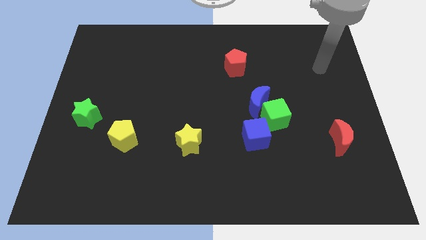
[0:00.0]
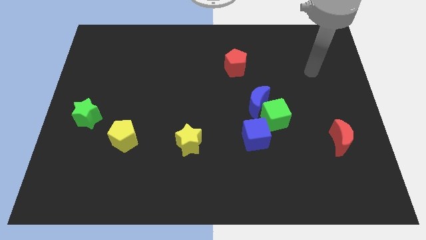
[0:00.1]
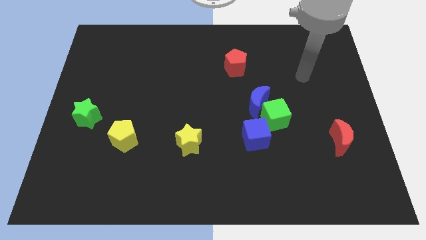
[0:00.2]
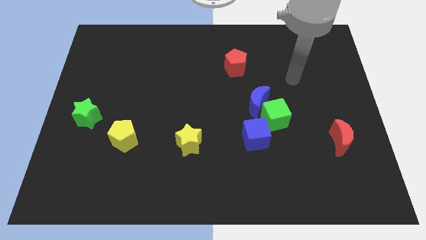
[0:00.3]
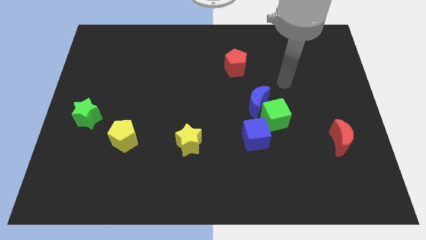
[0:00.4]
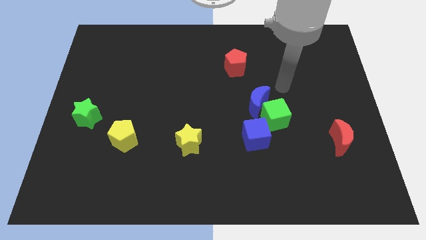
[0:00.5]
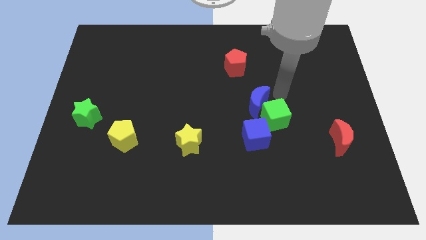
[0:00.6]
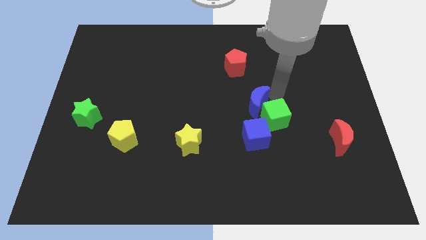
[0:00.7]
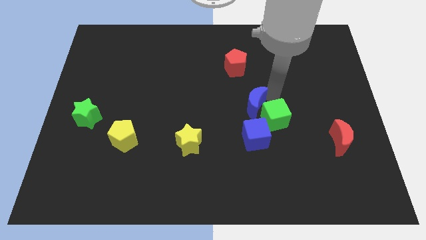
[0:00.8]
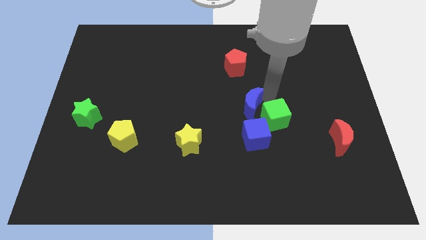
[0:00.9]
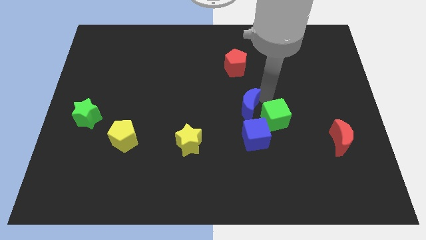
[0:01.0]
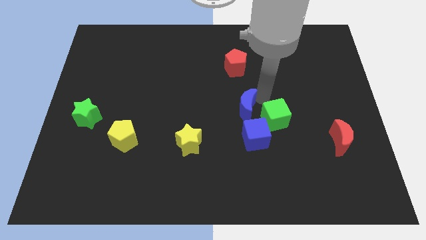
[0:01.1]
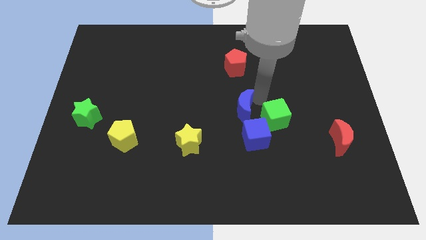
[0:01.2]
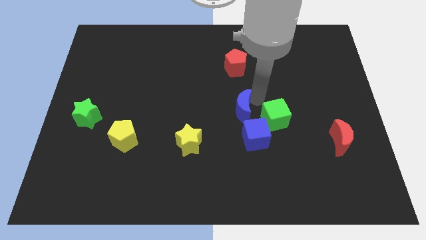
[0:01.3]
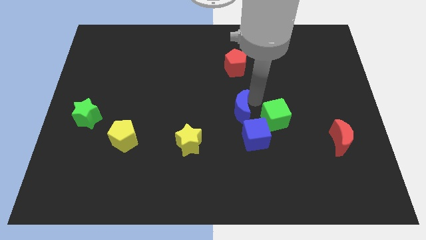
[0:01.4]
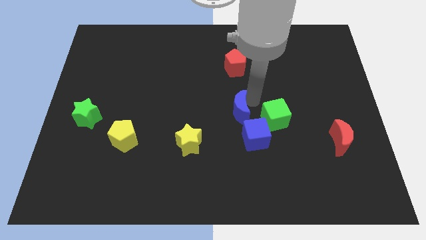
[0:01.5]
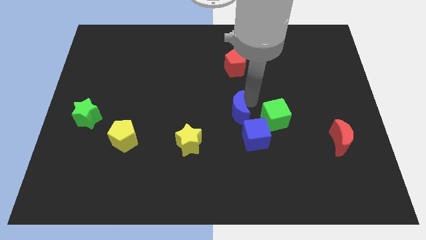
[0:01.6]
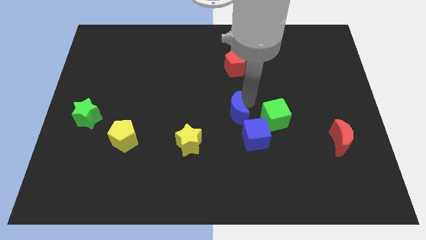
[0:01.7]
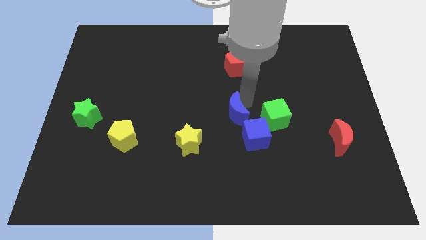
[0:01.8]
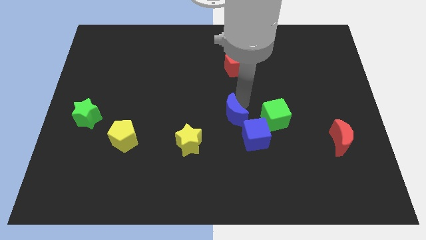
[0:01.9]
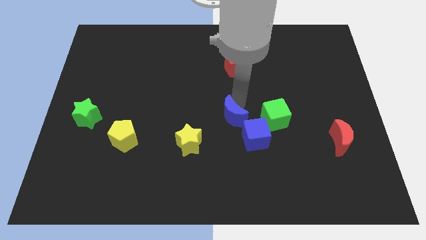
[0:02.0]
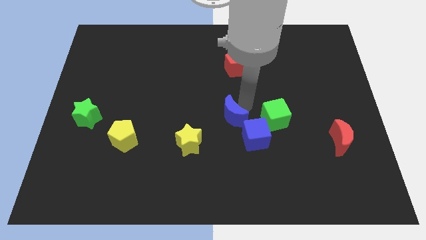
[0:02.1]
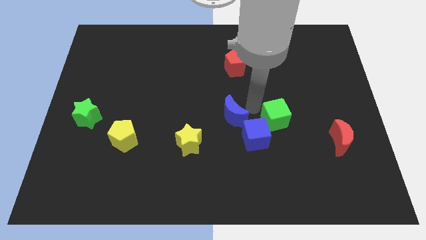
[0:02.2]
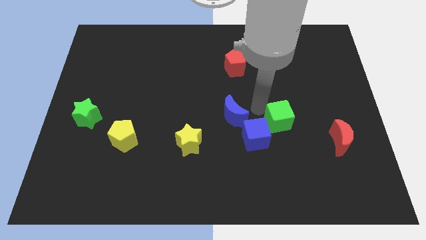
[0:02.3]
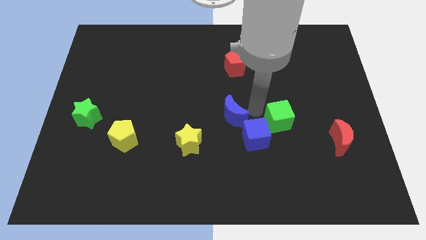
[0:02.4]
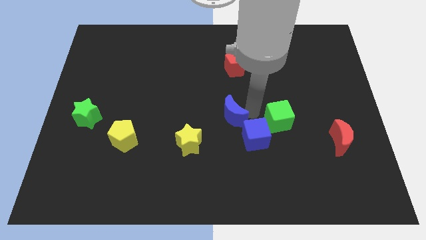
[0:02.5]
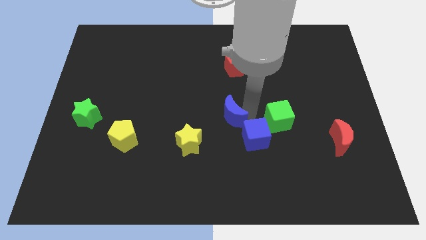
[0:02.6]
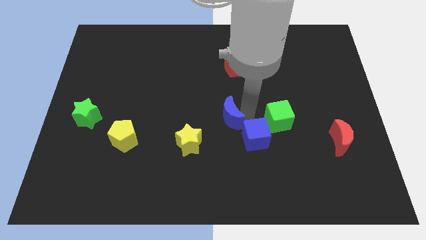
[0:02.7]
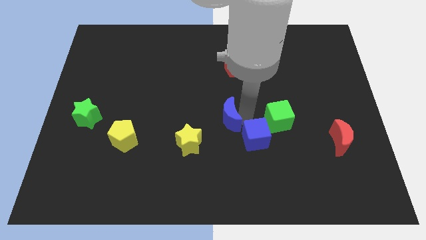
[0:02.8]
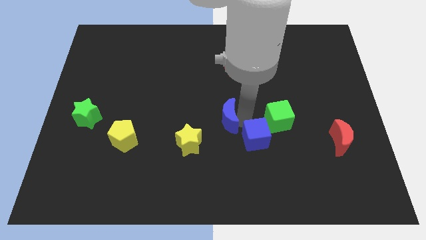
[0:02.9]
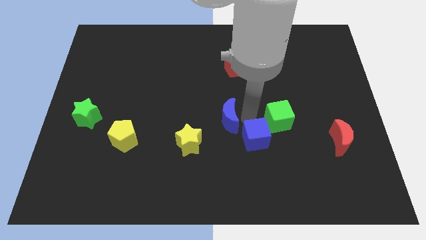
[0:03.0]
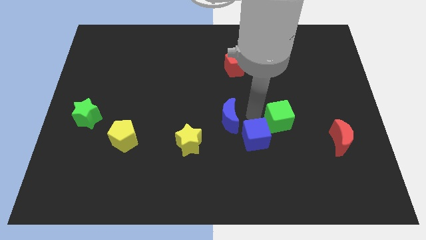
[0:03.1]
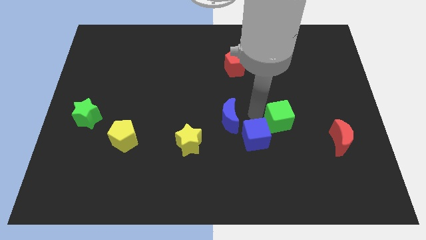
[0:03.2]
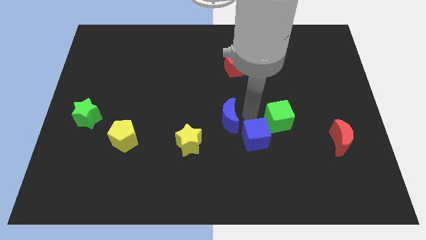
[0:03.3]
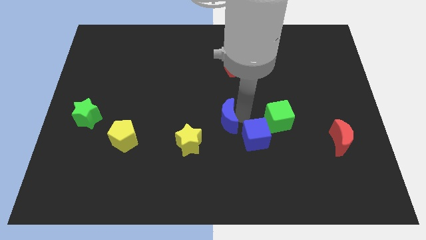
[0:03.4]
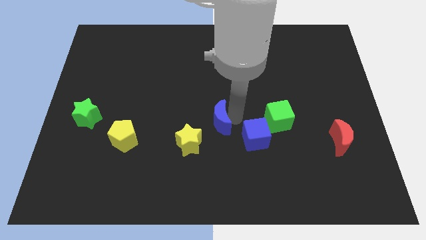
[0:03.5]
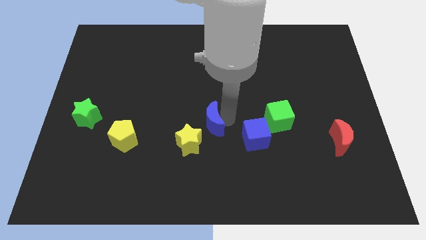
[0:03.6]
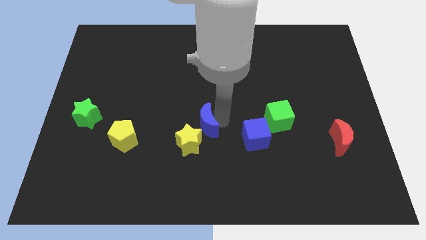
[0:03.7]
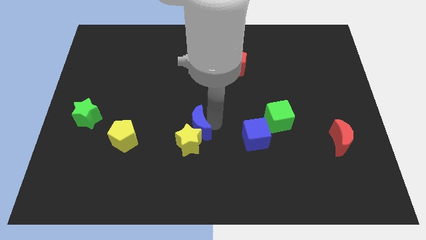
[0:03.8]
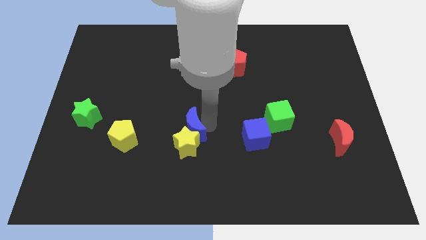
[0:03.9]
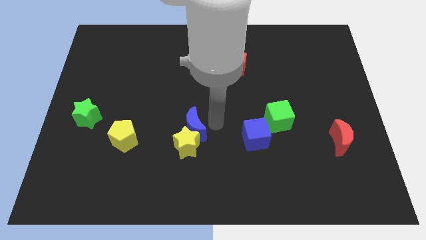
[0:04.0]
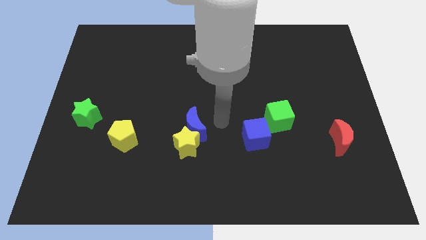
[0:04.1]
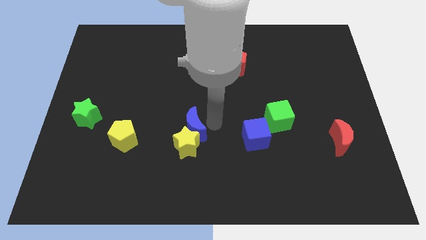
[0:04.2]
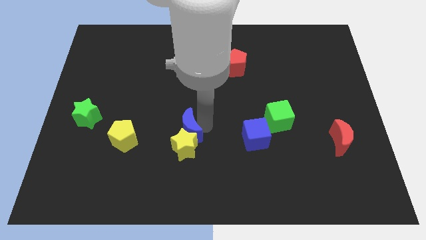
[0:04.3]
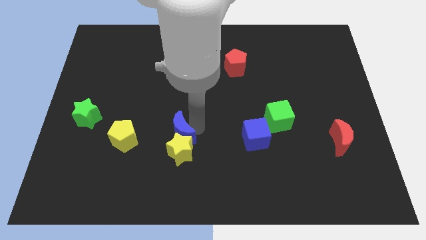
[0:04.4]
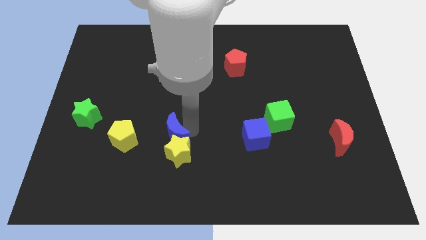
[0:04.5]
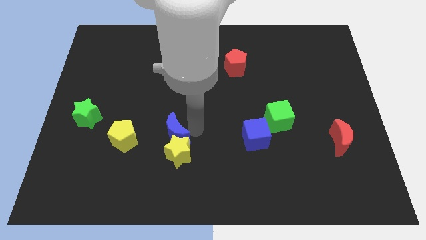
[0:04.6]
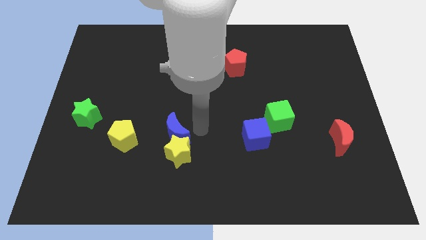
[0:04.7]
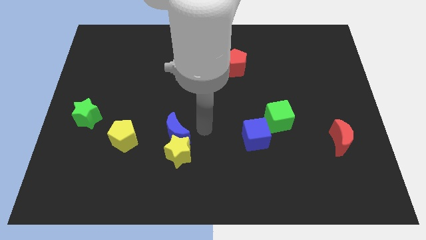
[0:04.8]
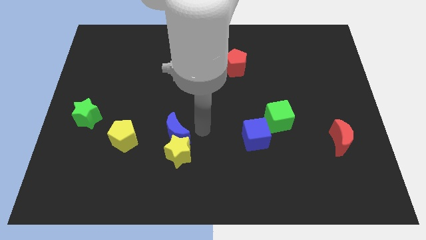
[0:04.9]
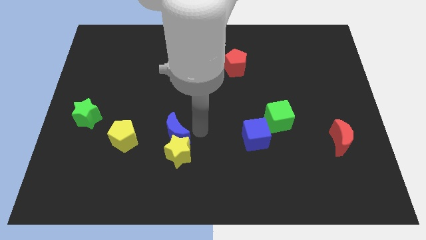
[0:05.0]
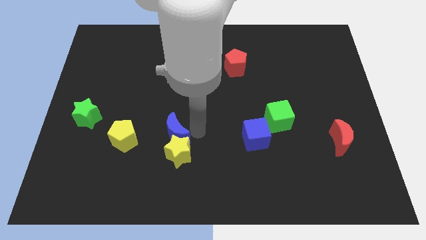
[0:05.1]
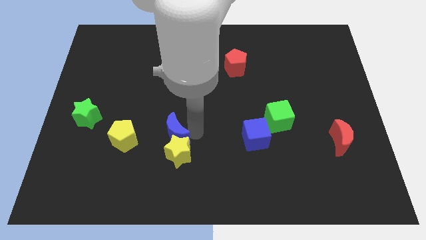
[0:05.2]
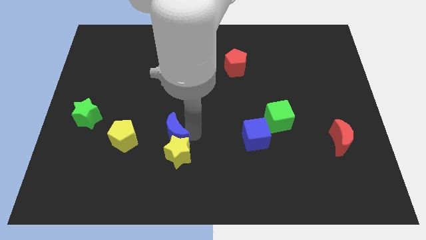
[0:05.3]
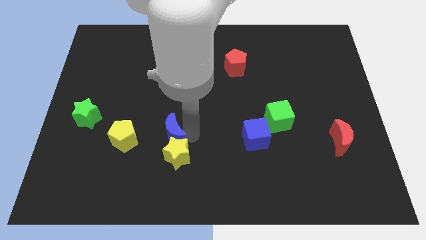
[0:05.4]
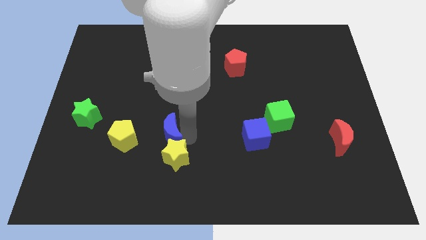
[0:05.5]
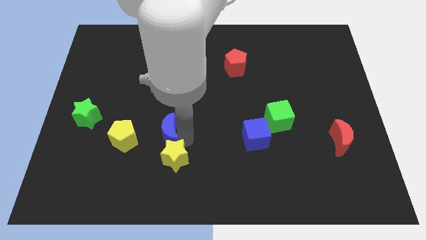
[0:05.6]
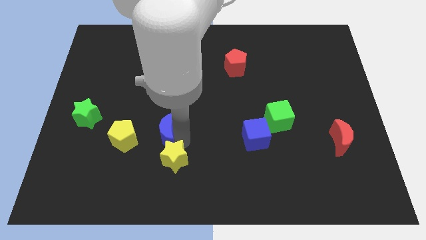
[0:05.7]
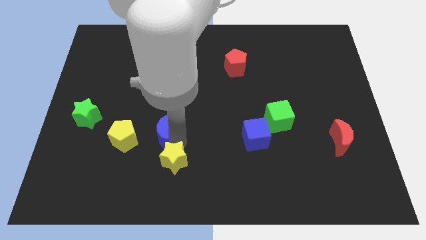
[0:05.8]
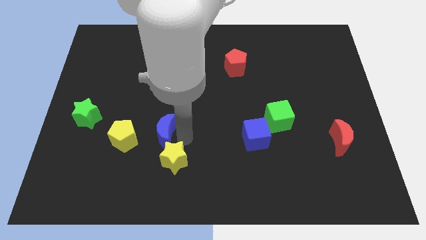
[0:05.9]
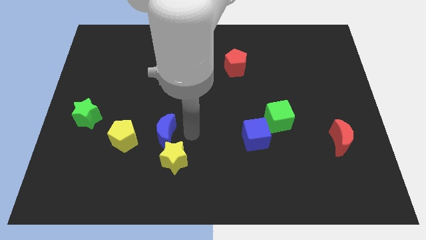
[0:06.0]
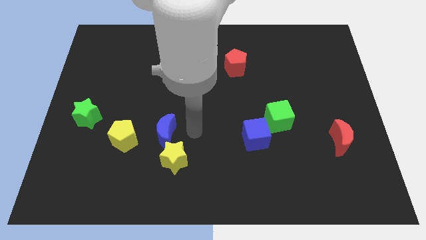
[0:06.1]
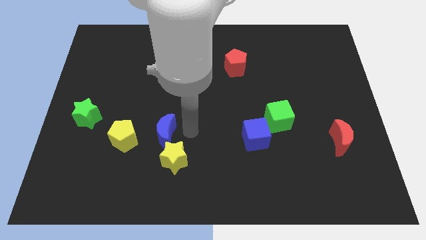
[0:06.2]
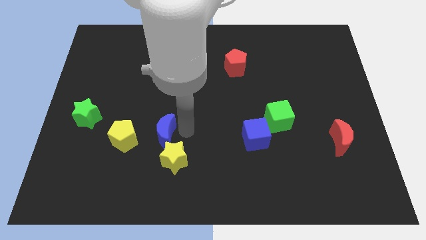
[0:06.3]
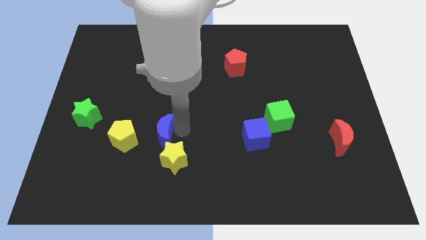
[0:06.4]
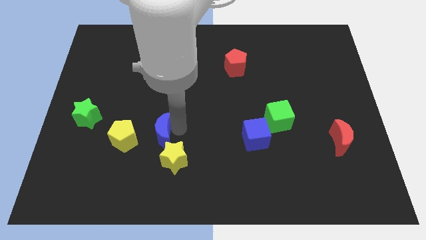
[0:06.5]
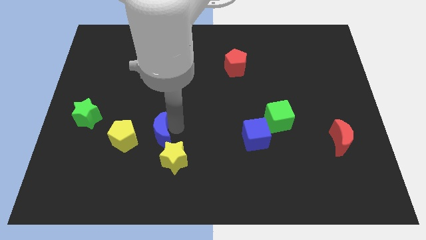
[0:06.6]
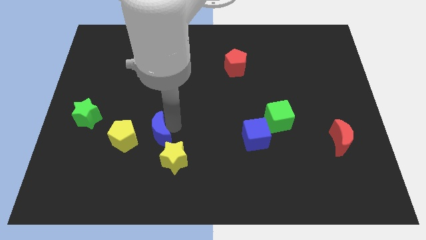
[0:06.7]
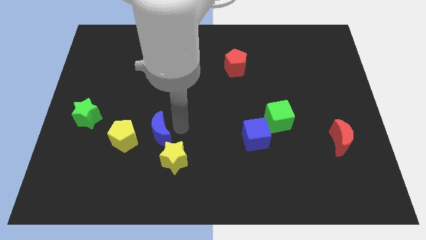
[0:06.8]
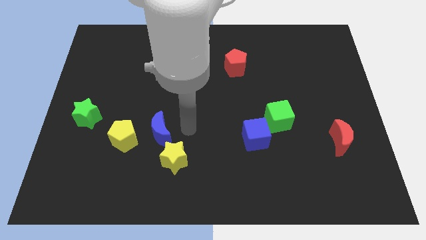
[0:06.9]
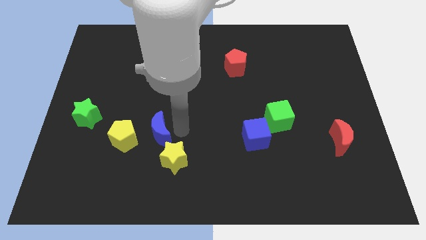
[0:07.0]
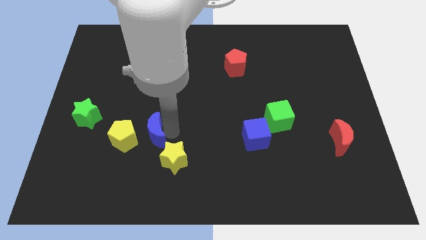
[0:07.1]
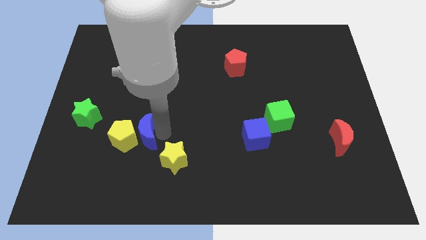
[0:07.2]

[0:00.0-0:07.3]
put the blue moon towards the yellow pentagon

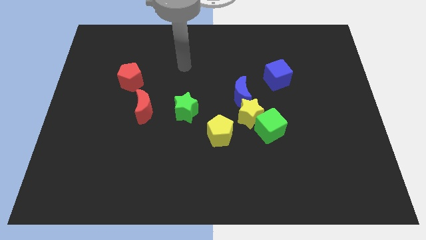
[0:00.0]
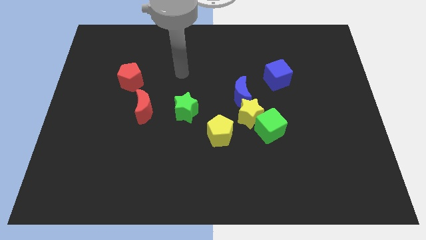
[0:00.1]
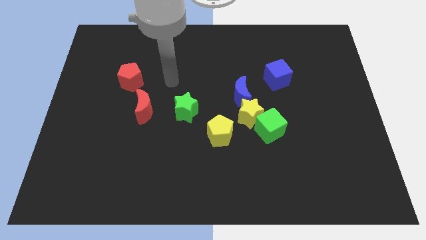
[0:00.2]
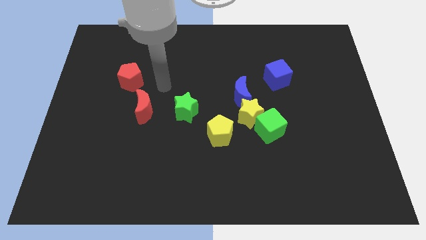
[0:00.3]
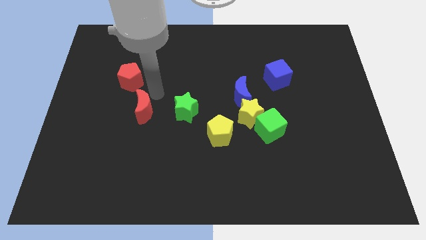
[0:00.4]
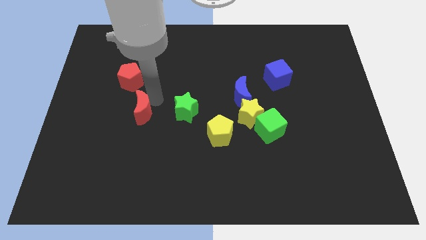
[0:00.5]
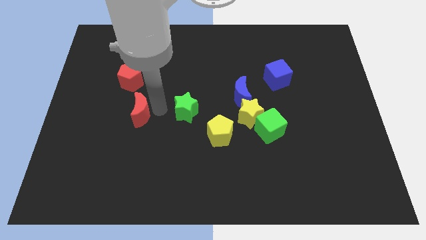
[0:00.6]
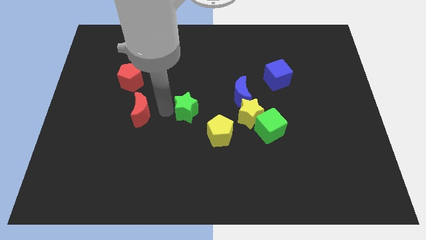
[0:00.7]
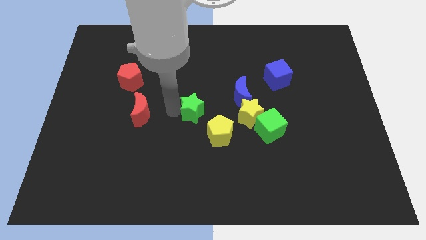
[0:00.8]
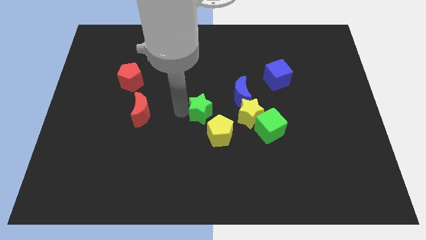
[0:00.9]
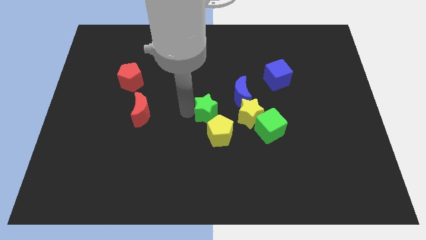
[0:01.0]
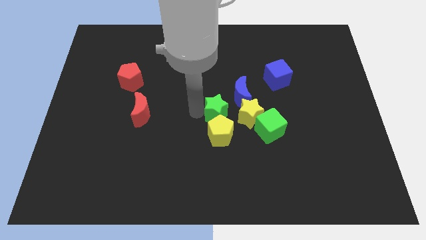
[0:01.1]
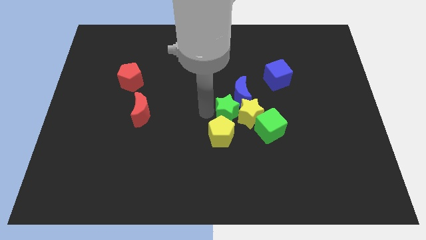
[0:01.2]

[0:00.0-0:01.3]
push the green star to the yellow star
